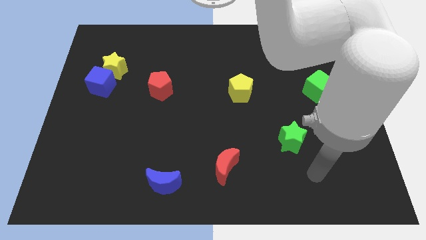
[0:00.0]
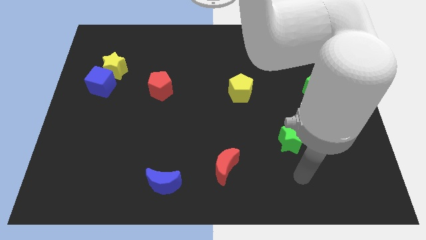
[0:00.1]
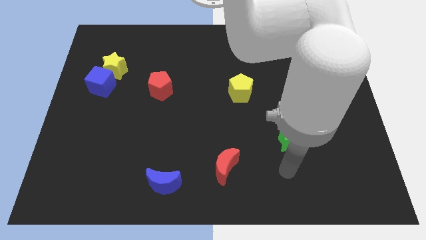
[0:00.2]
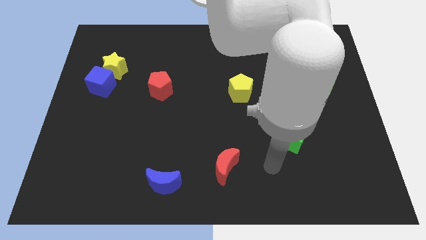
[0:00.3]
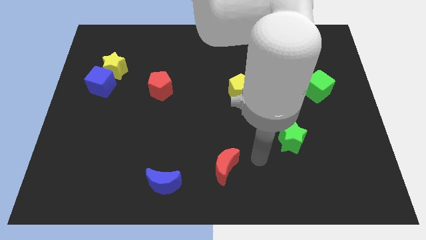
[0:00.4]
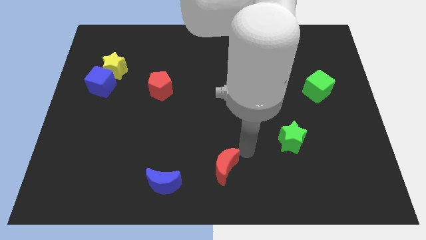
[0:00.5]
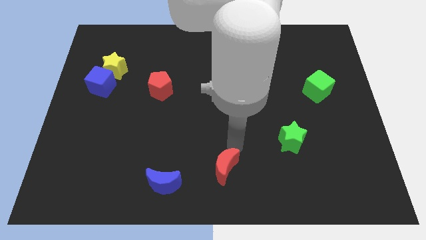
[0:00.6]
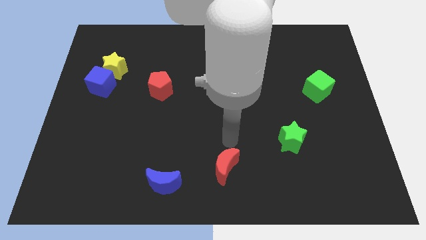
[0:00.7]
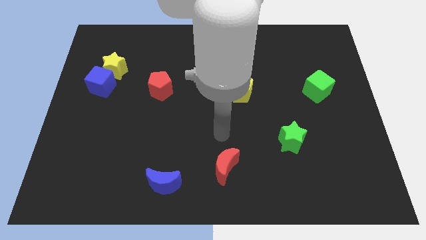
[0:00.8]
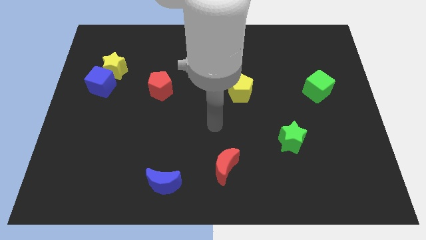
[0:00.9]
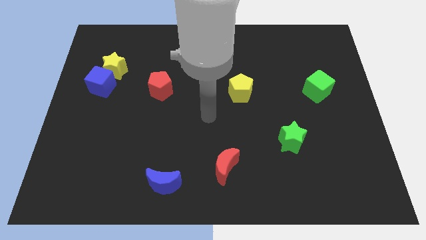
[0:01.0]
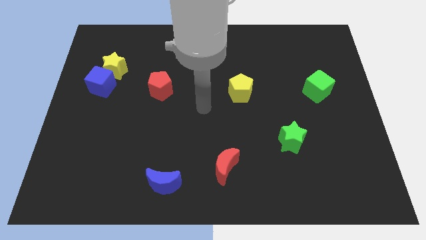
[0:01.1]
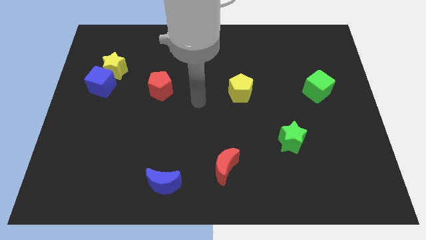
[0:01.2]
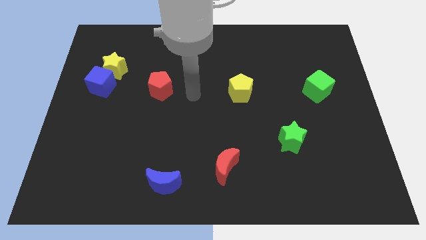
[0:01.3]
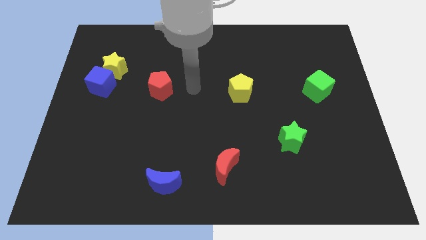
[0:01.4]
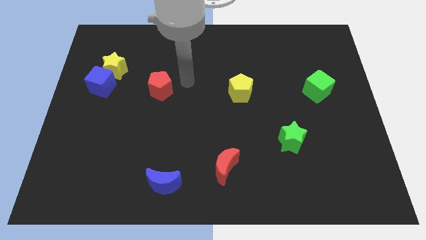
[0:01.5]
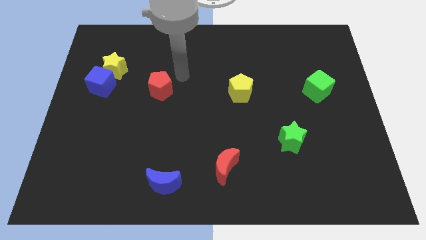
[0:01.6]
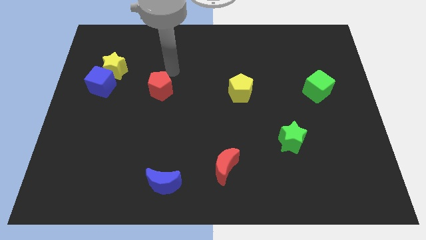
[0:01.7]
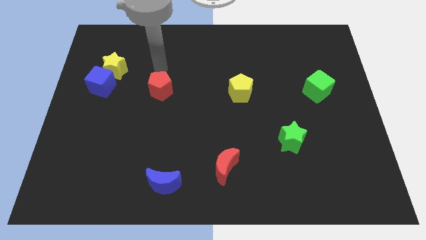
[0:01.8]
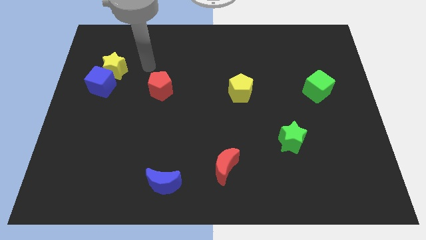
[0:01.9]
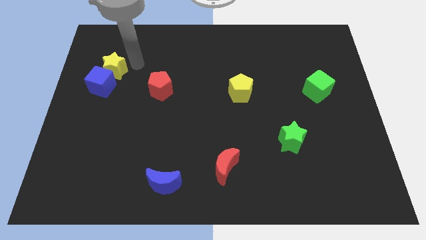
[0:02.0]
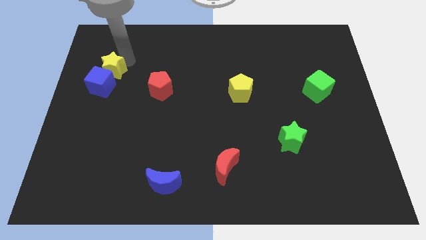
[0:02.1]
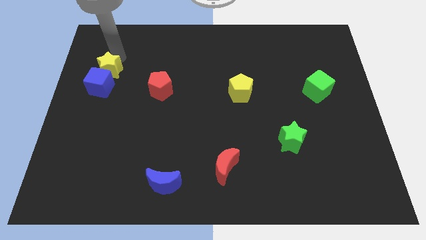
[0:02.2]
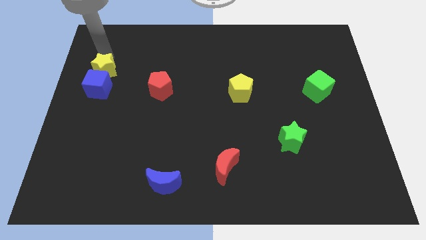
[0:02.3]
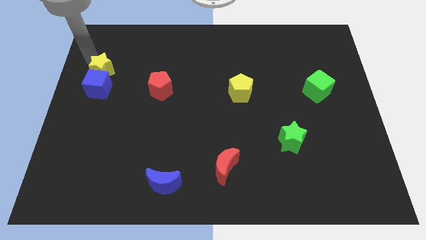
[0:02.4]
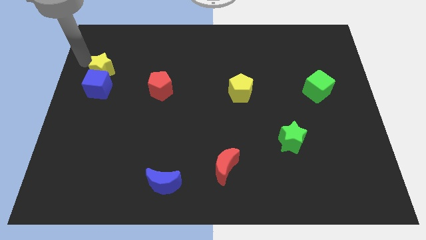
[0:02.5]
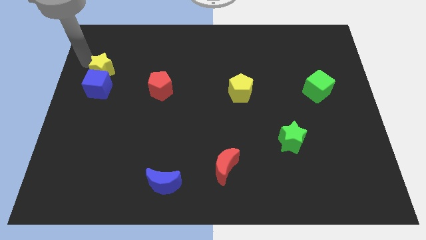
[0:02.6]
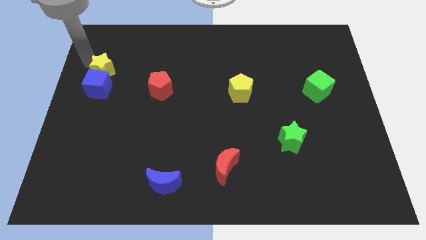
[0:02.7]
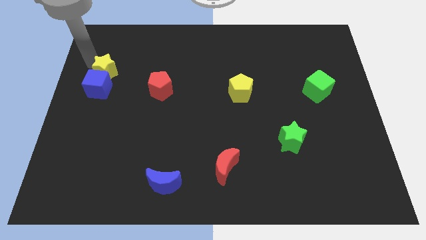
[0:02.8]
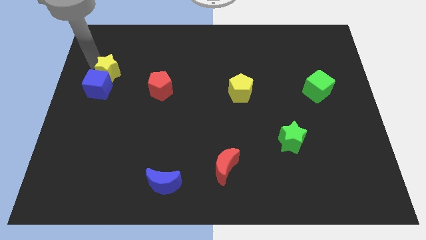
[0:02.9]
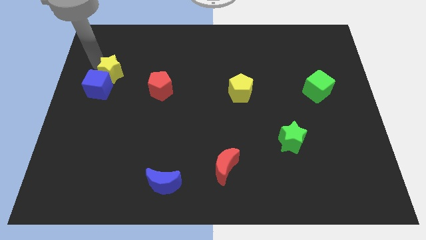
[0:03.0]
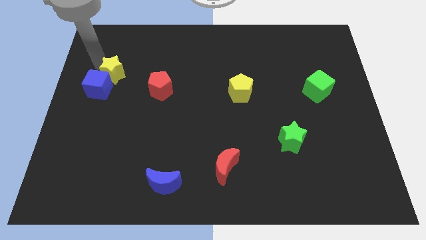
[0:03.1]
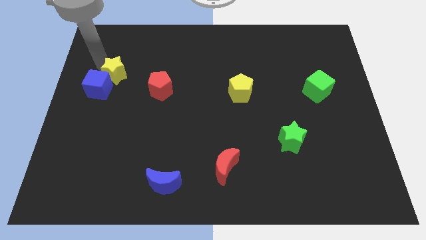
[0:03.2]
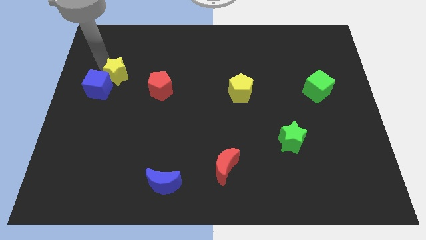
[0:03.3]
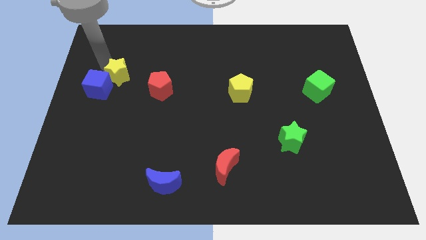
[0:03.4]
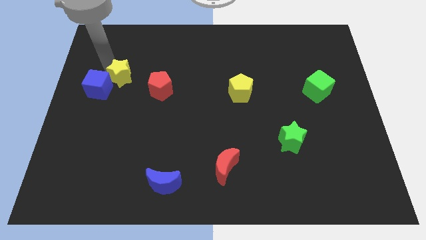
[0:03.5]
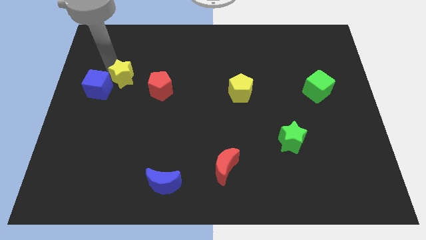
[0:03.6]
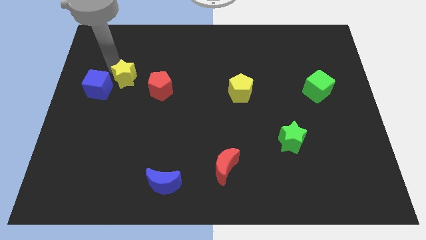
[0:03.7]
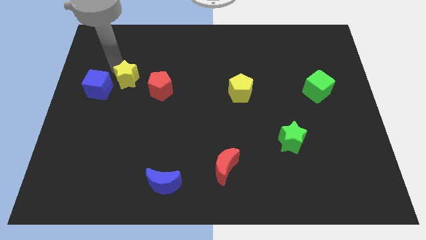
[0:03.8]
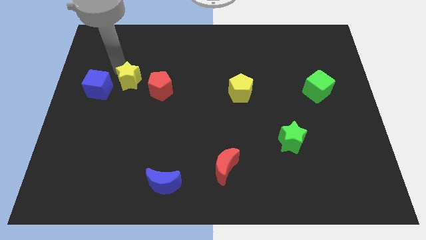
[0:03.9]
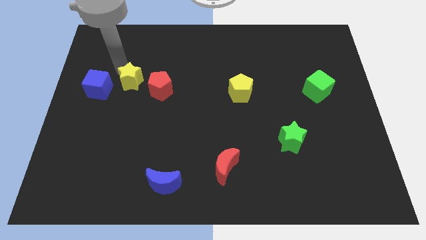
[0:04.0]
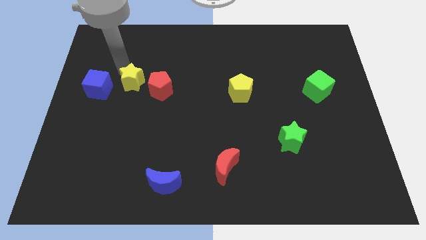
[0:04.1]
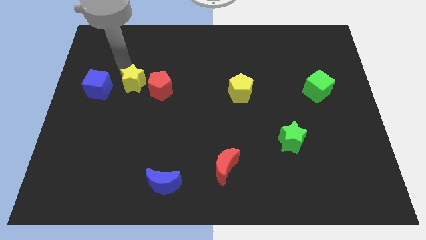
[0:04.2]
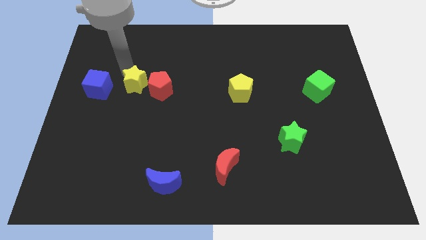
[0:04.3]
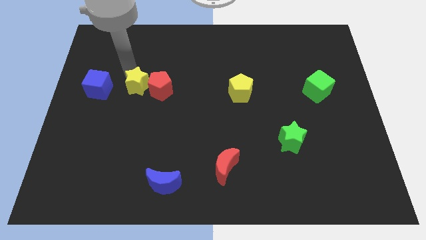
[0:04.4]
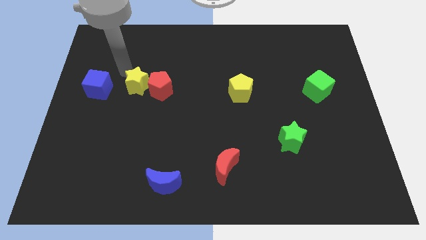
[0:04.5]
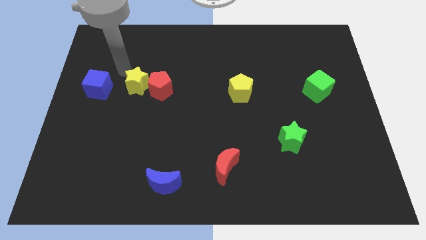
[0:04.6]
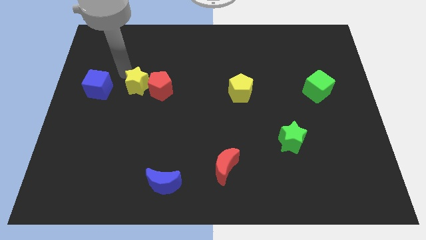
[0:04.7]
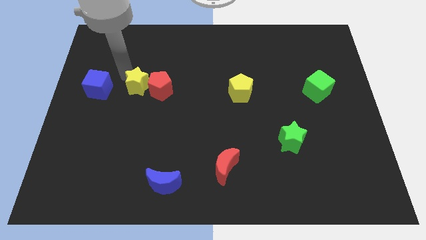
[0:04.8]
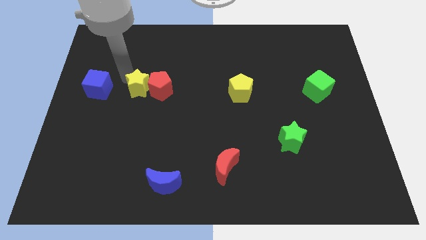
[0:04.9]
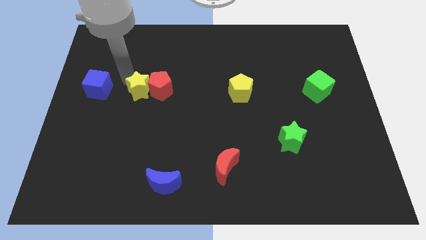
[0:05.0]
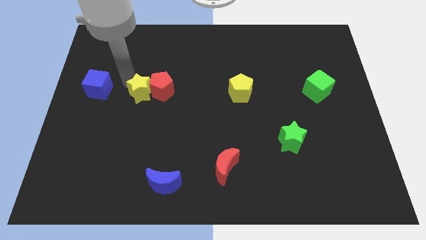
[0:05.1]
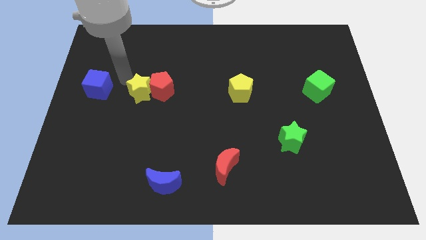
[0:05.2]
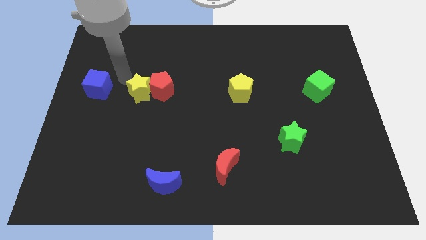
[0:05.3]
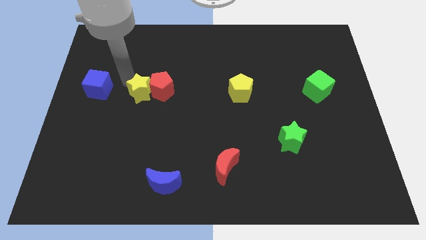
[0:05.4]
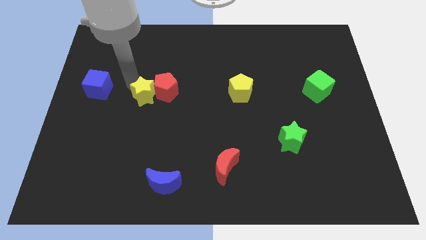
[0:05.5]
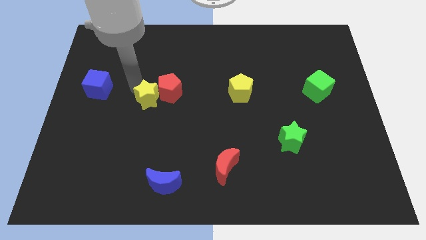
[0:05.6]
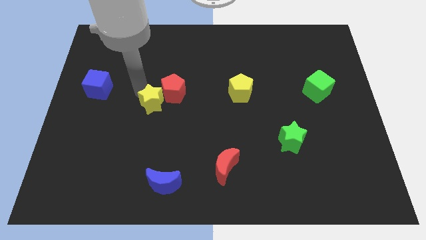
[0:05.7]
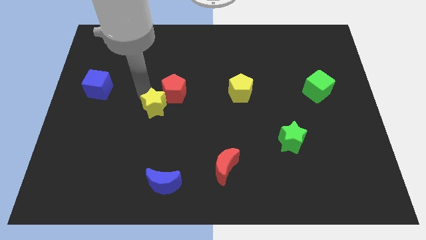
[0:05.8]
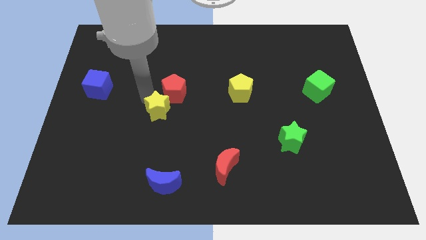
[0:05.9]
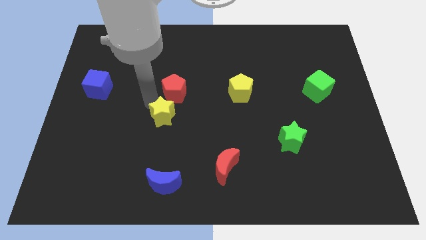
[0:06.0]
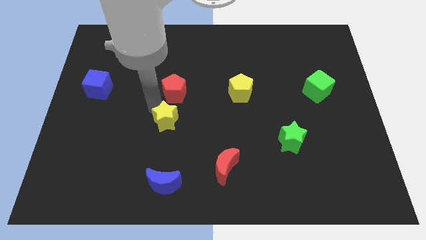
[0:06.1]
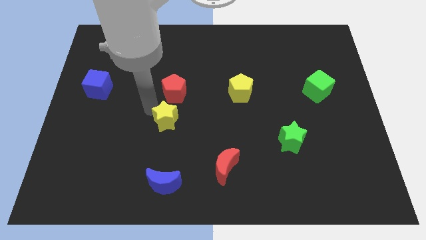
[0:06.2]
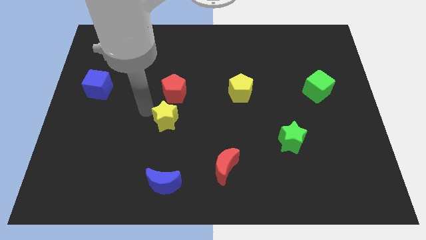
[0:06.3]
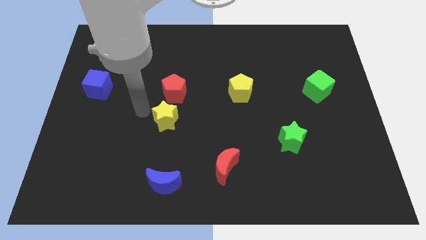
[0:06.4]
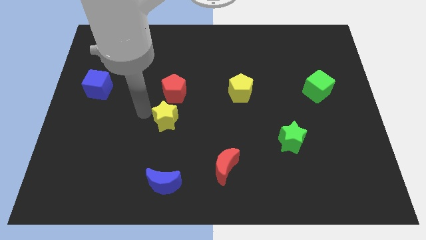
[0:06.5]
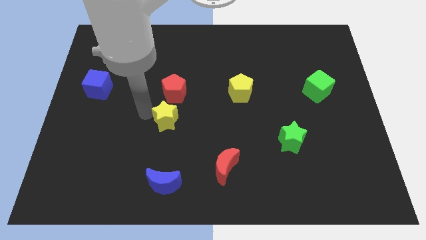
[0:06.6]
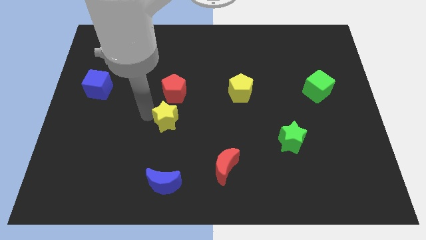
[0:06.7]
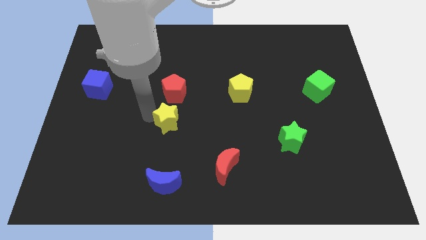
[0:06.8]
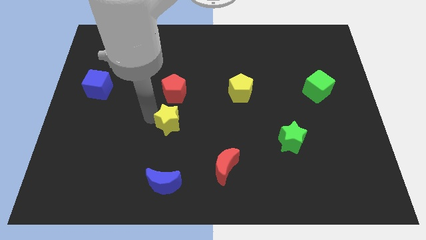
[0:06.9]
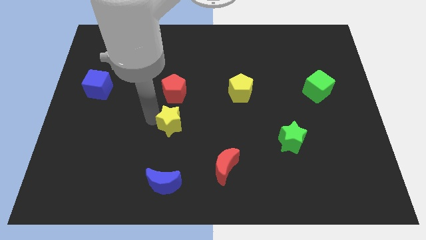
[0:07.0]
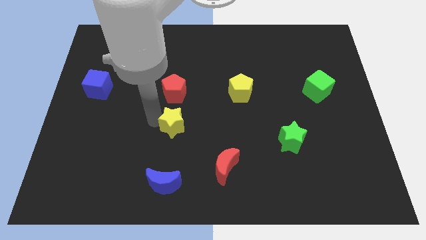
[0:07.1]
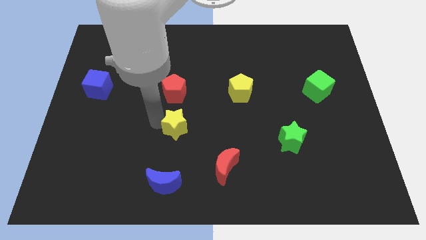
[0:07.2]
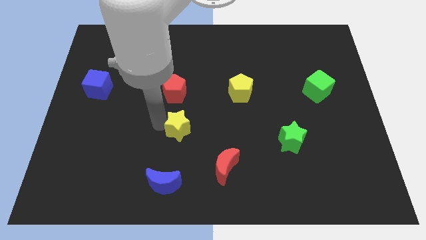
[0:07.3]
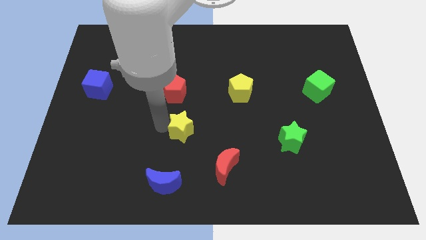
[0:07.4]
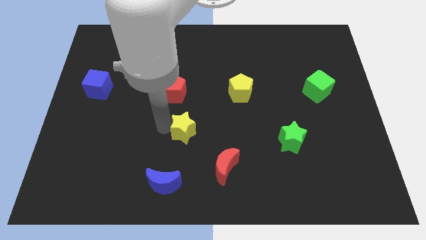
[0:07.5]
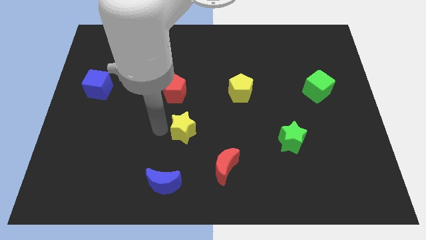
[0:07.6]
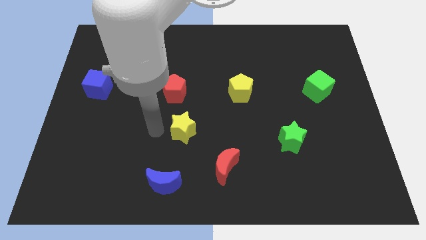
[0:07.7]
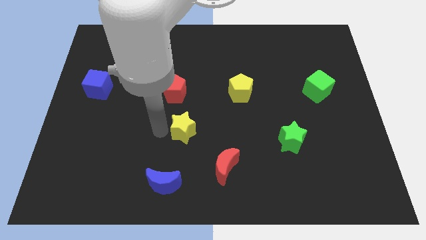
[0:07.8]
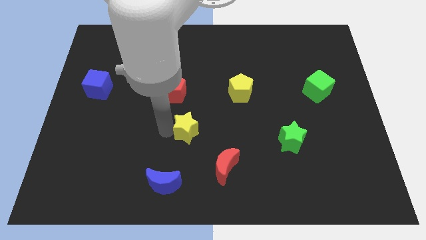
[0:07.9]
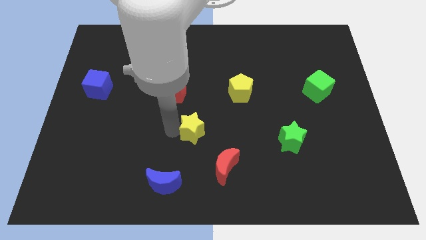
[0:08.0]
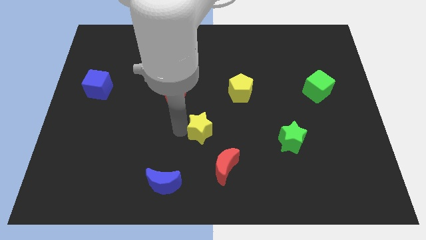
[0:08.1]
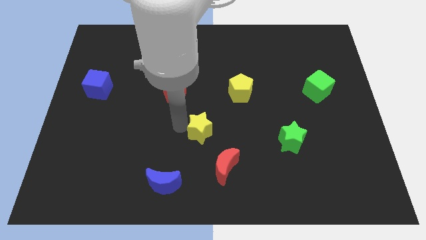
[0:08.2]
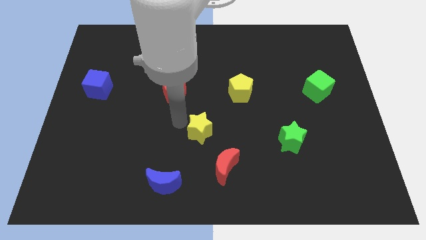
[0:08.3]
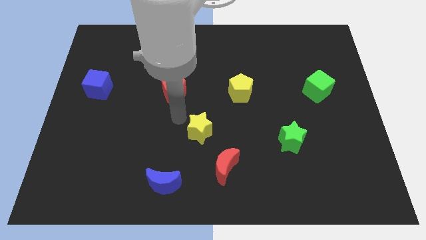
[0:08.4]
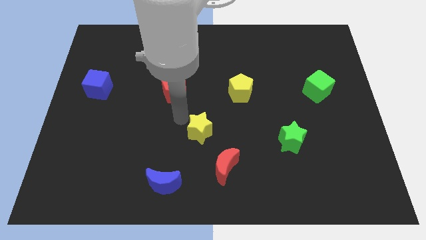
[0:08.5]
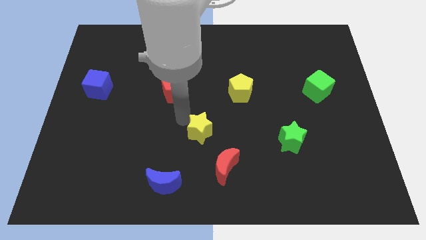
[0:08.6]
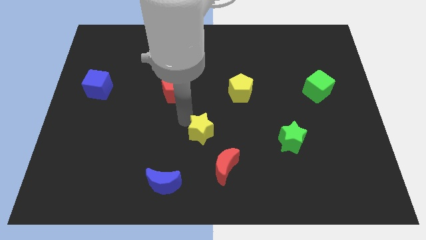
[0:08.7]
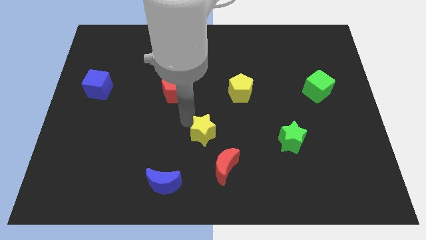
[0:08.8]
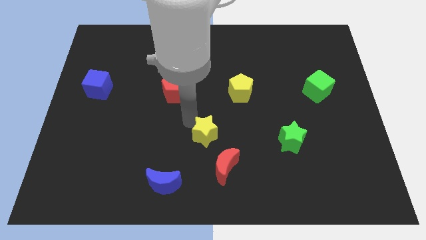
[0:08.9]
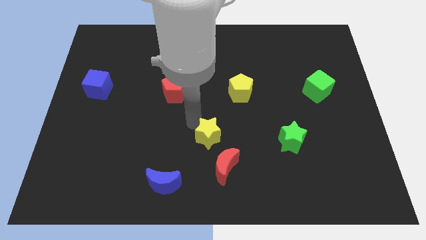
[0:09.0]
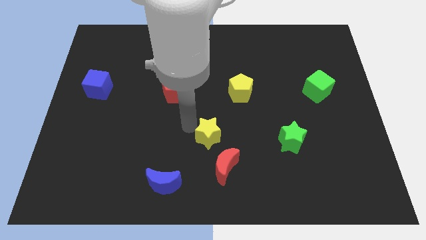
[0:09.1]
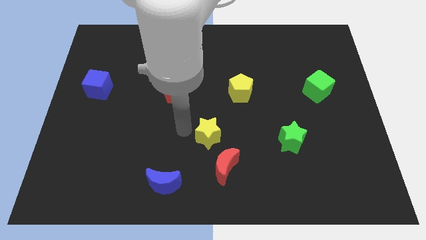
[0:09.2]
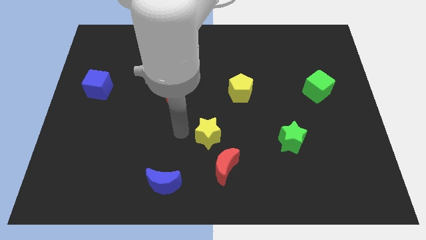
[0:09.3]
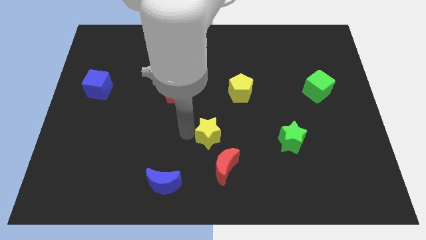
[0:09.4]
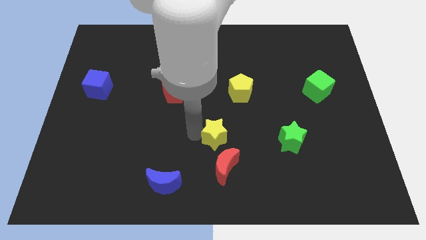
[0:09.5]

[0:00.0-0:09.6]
move the yellow star to the left of the green star
